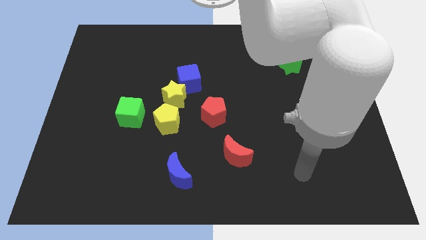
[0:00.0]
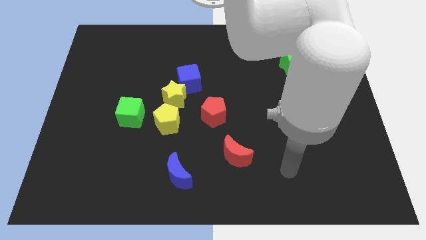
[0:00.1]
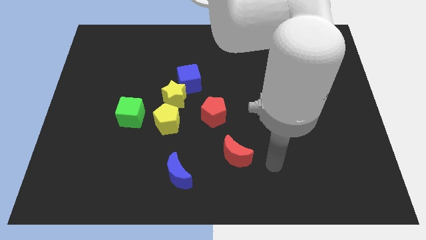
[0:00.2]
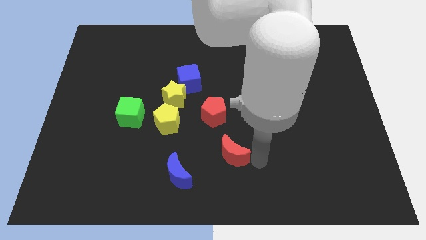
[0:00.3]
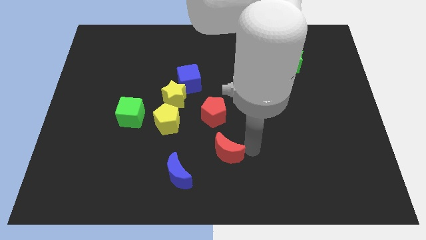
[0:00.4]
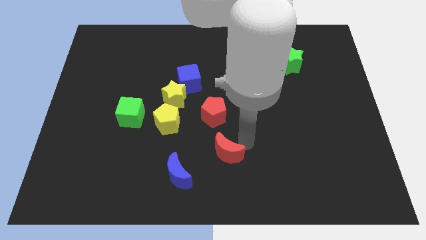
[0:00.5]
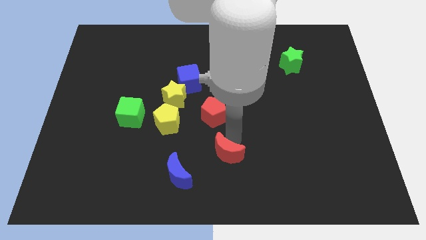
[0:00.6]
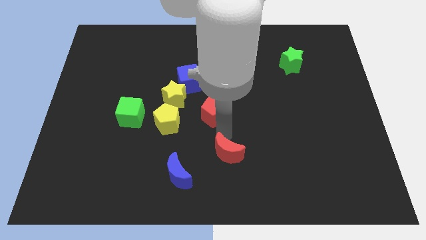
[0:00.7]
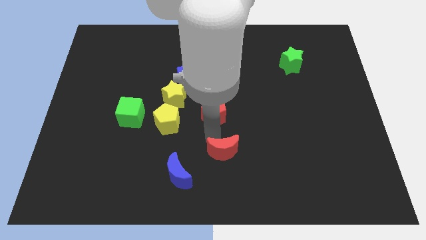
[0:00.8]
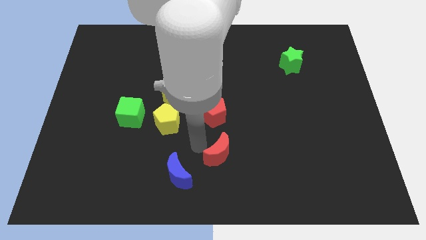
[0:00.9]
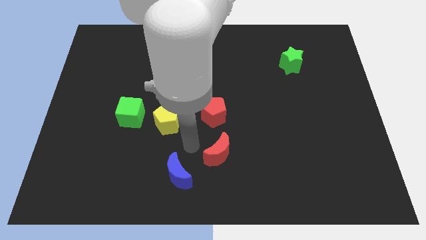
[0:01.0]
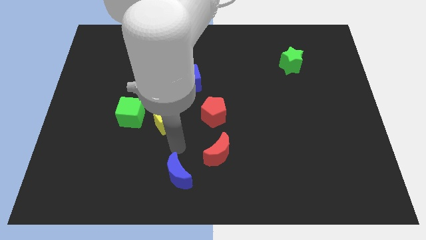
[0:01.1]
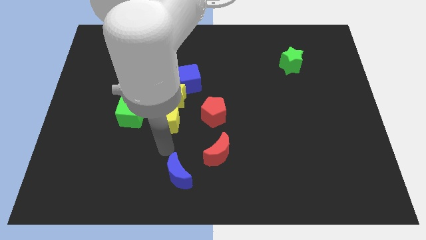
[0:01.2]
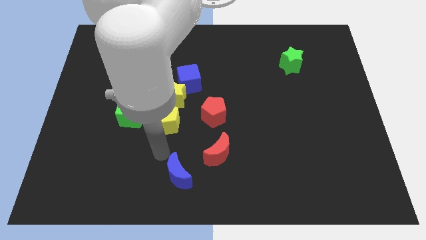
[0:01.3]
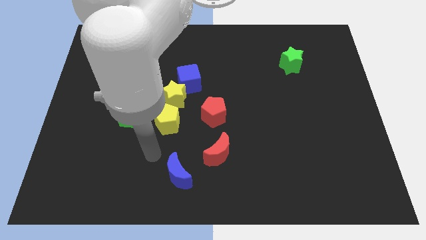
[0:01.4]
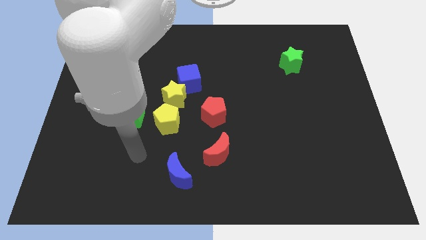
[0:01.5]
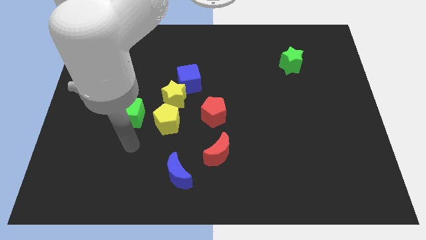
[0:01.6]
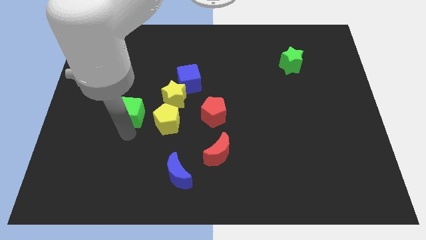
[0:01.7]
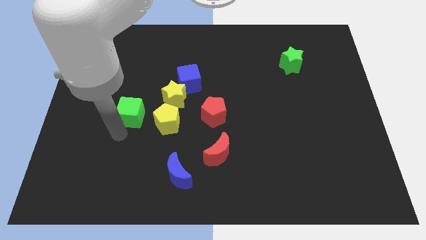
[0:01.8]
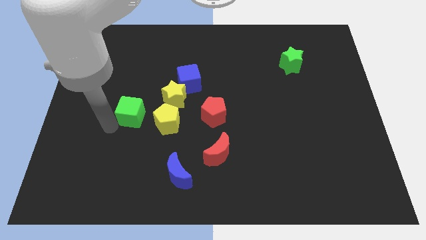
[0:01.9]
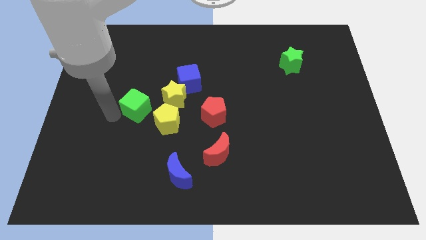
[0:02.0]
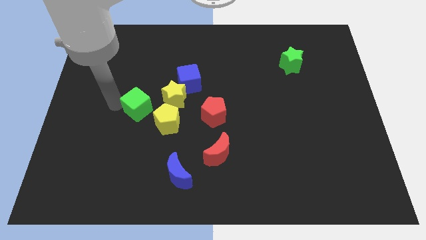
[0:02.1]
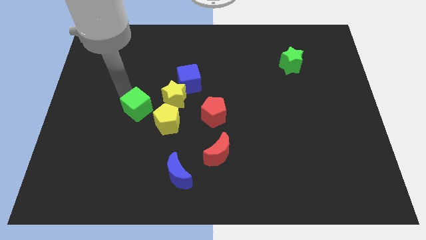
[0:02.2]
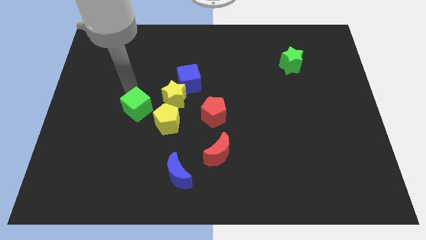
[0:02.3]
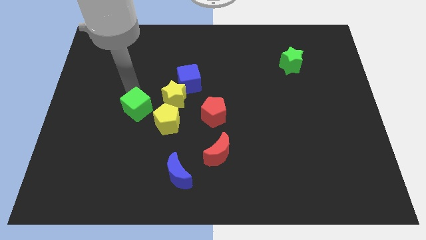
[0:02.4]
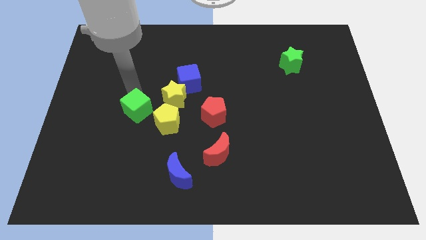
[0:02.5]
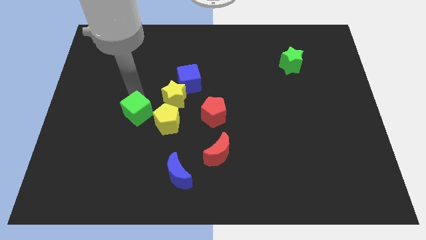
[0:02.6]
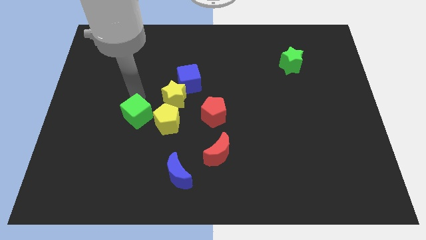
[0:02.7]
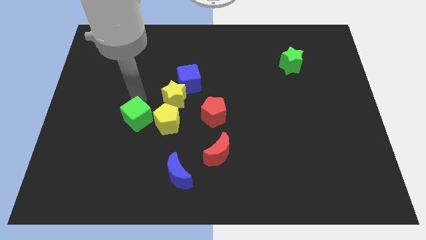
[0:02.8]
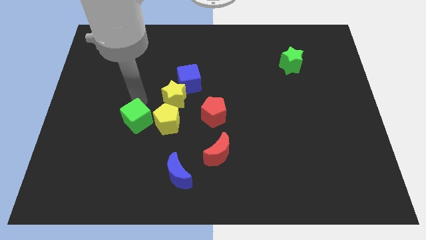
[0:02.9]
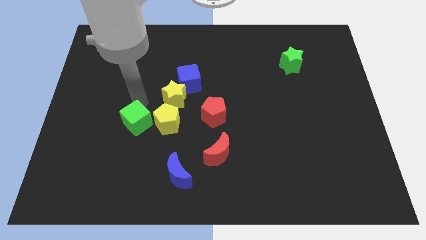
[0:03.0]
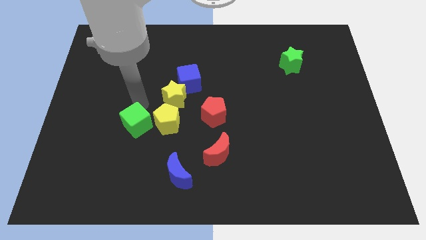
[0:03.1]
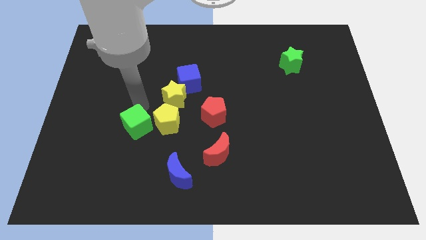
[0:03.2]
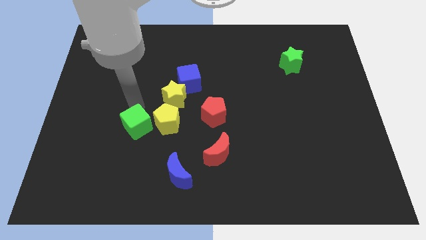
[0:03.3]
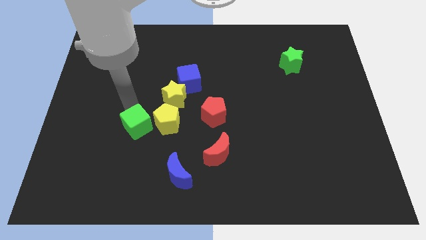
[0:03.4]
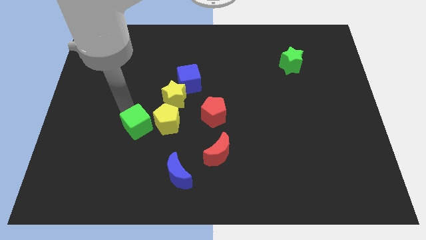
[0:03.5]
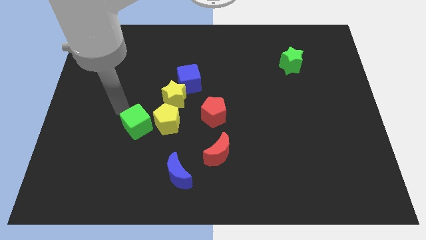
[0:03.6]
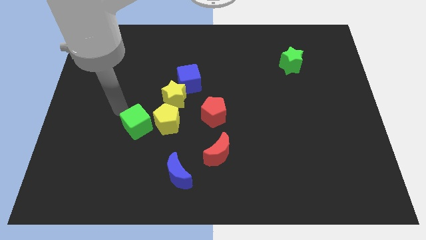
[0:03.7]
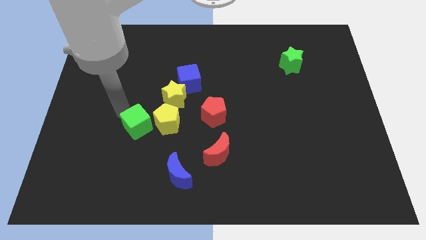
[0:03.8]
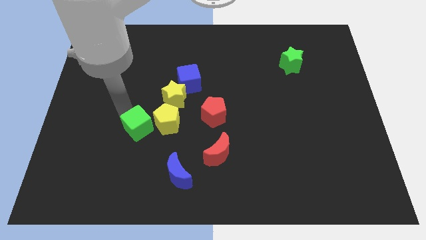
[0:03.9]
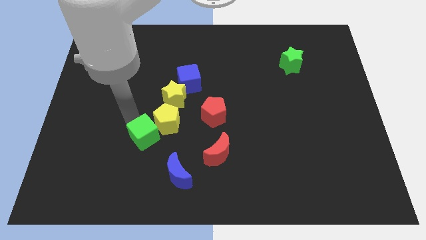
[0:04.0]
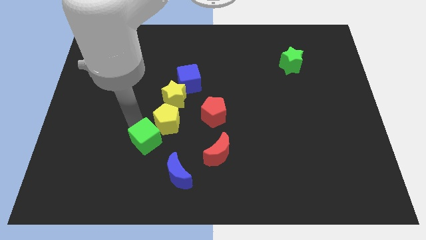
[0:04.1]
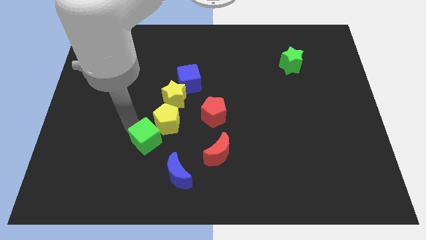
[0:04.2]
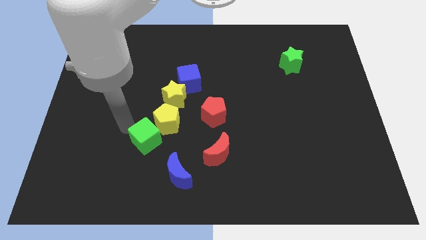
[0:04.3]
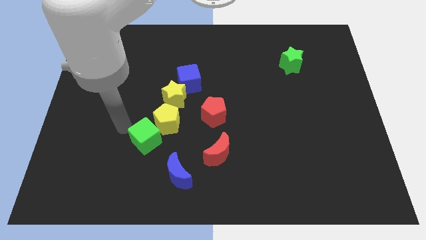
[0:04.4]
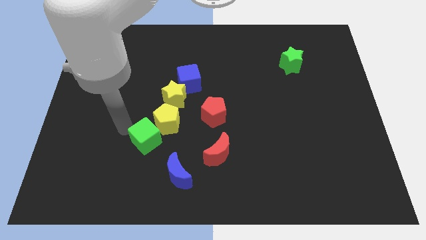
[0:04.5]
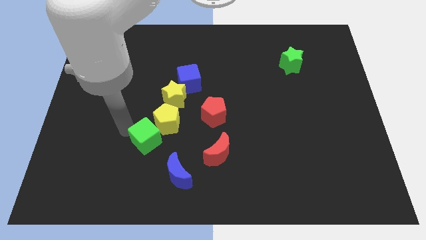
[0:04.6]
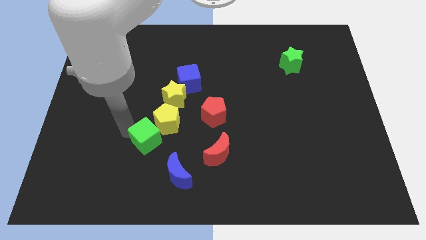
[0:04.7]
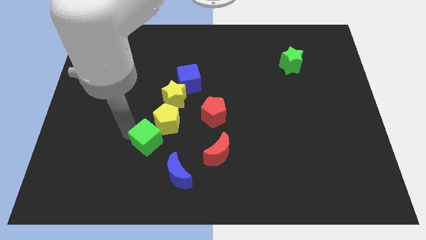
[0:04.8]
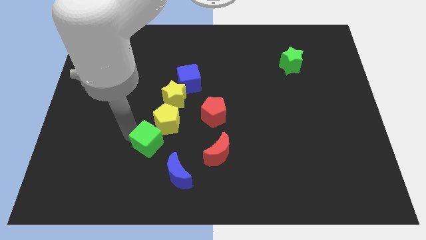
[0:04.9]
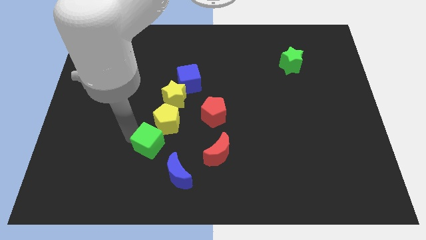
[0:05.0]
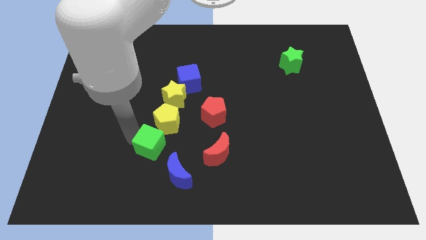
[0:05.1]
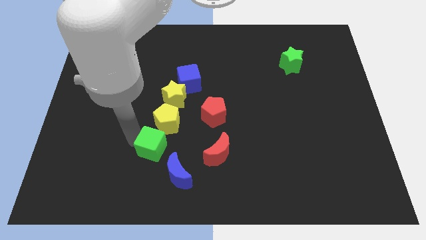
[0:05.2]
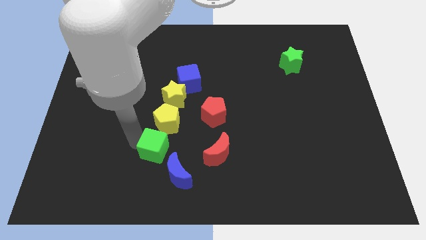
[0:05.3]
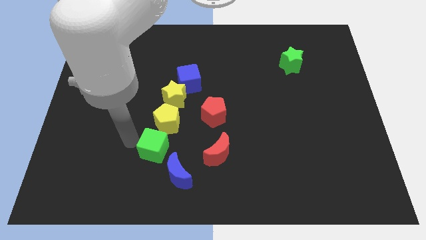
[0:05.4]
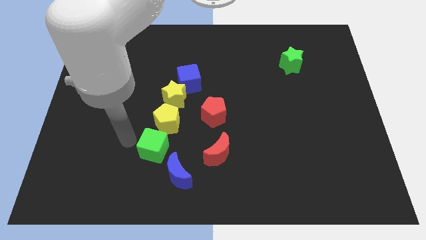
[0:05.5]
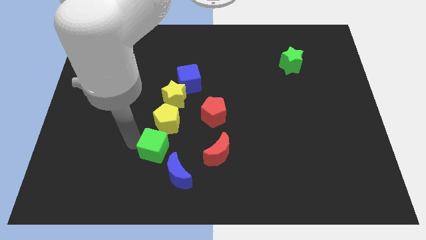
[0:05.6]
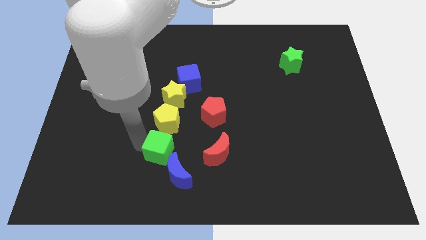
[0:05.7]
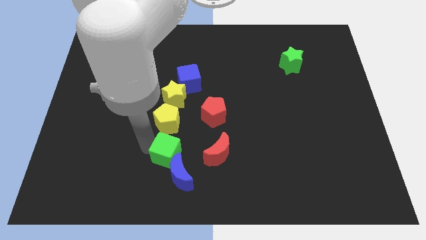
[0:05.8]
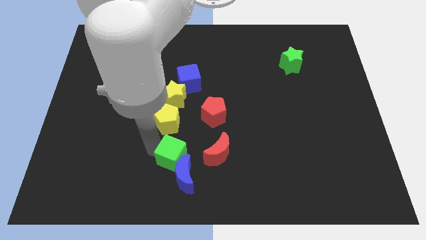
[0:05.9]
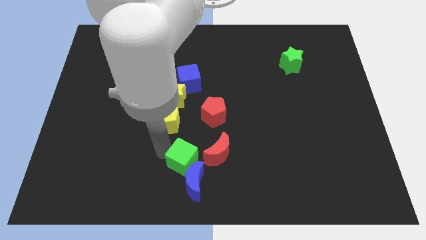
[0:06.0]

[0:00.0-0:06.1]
push the green cube to the bottom side
